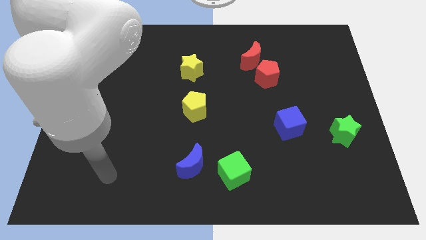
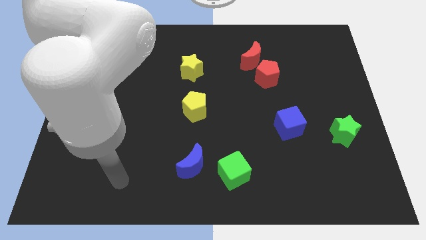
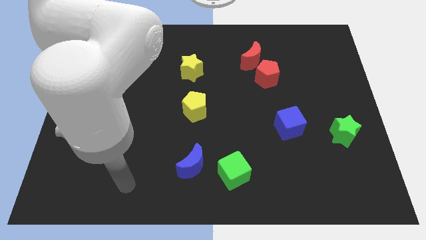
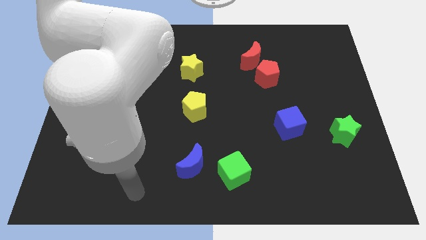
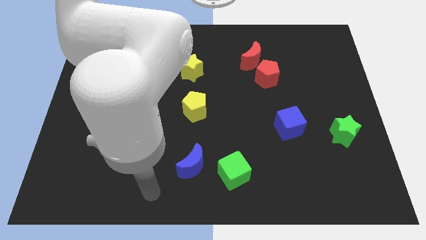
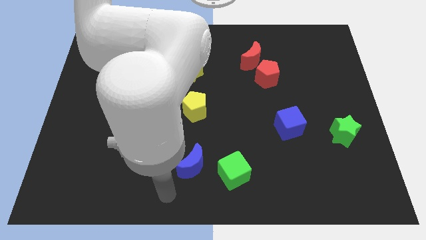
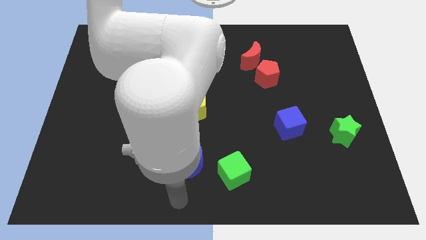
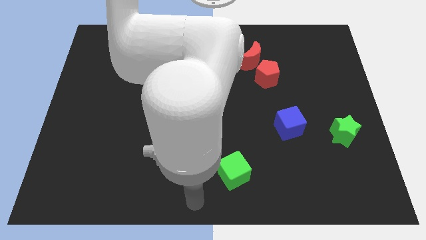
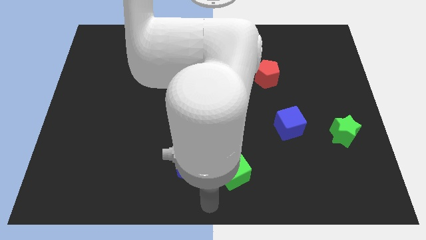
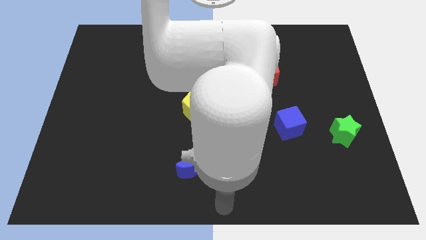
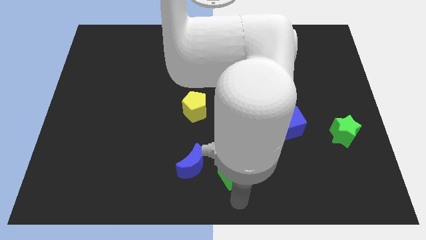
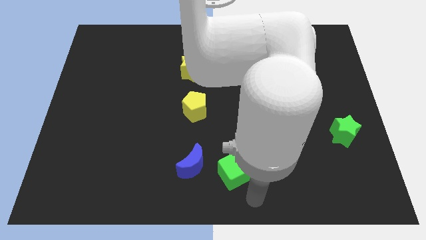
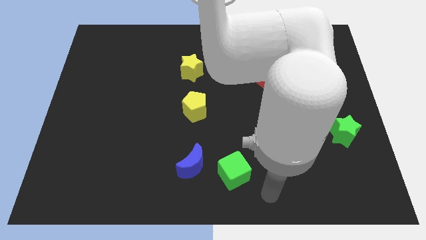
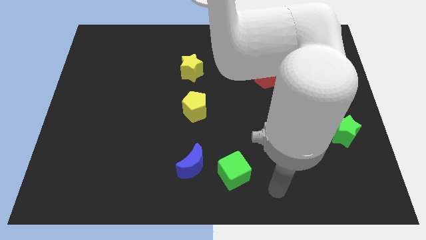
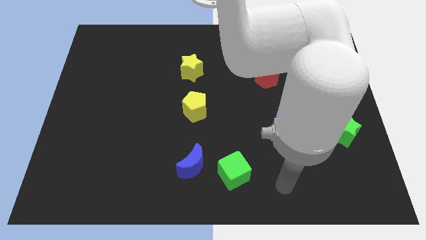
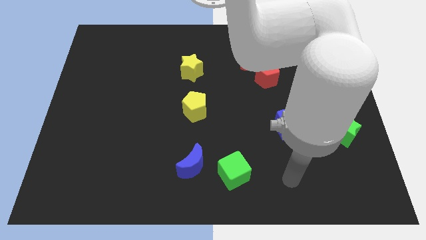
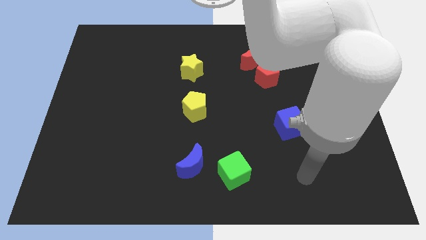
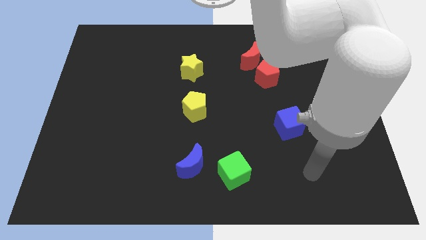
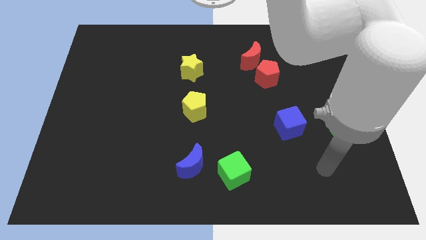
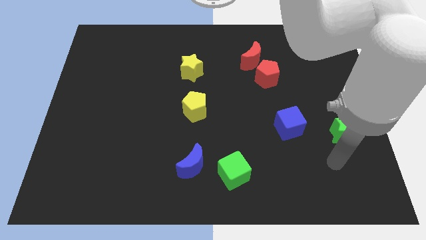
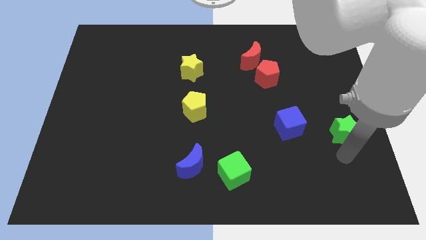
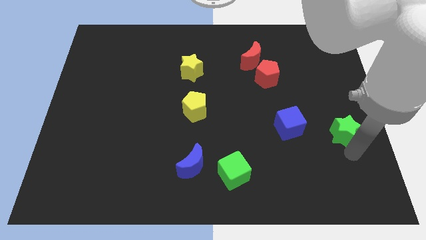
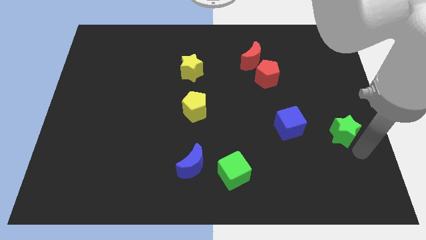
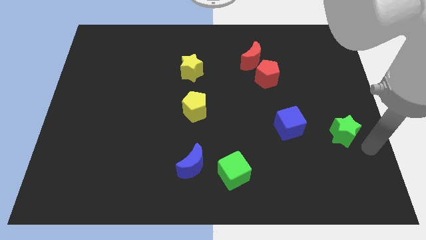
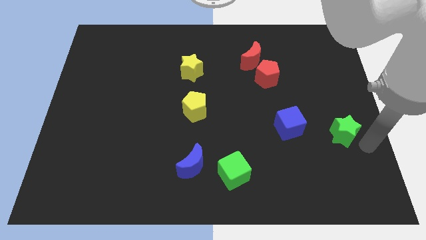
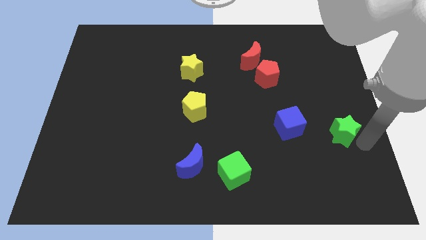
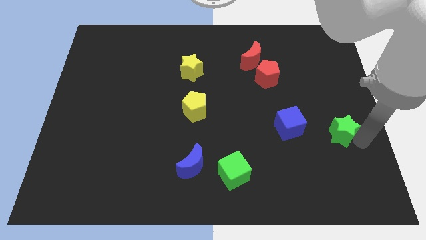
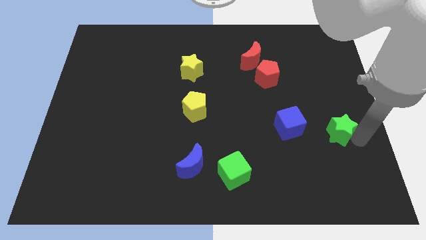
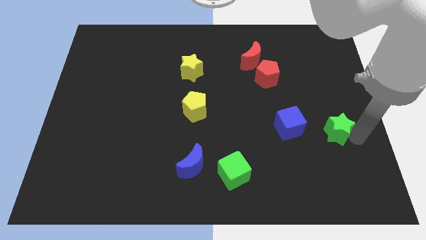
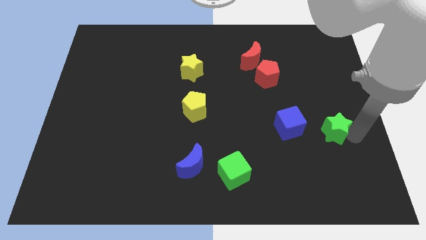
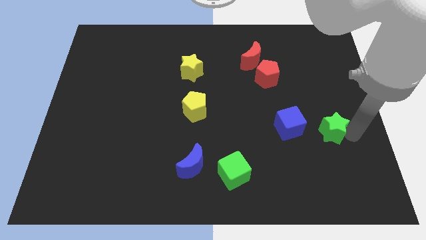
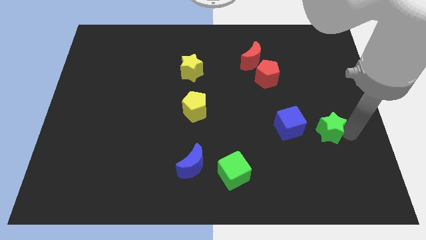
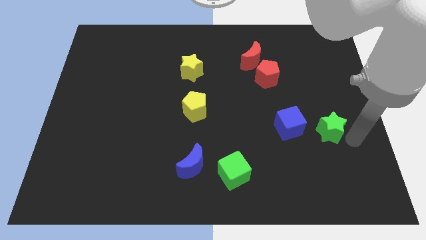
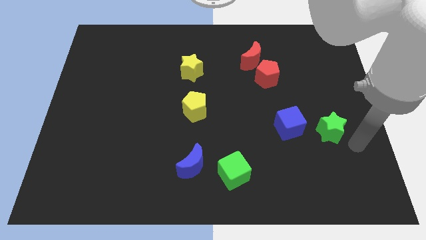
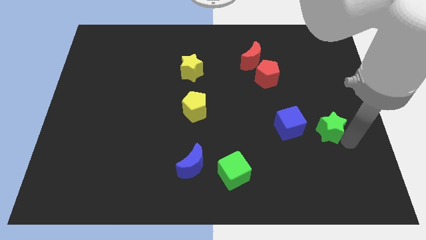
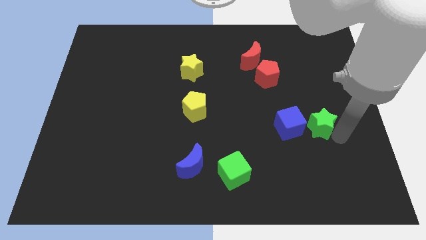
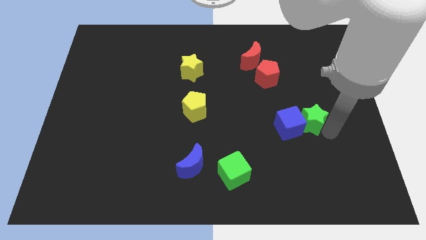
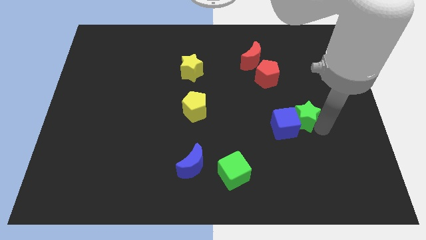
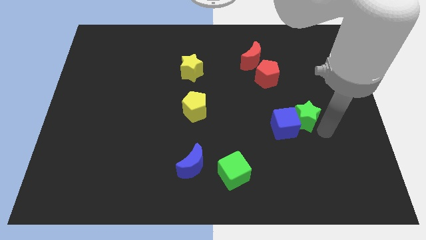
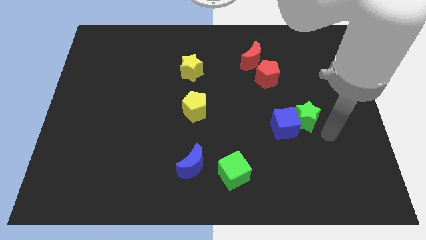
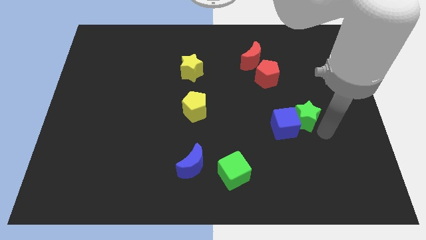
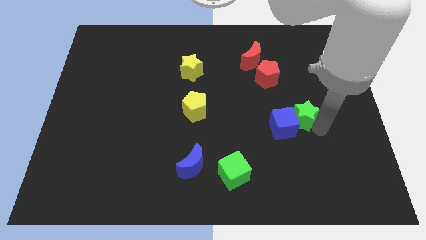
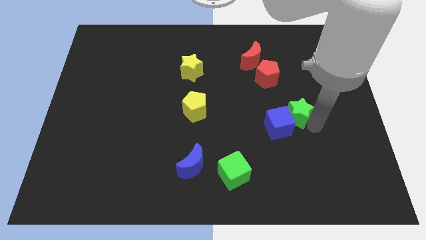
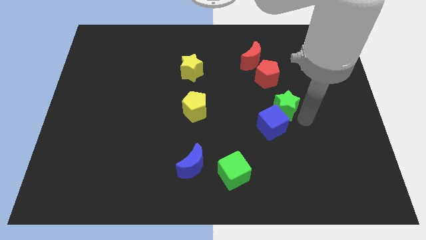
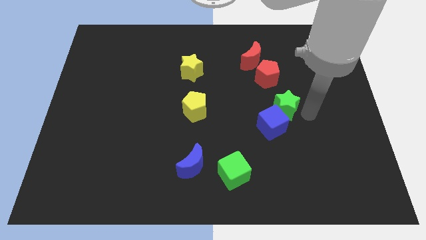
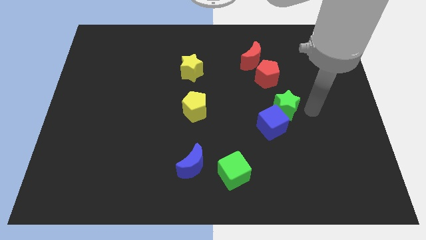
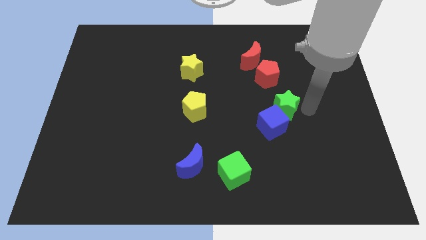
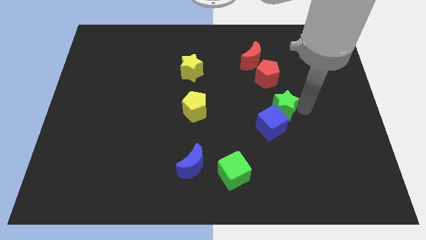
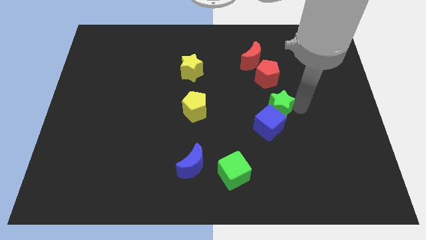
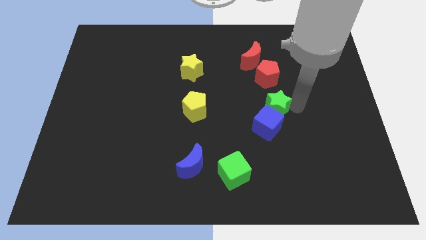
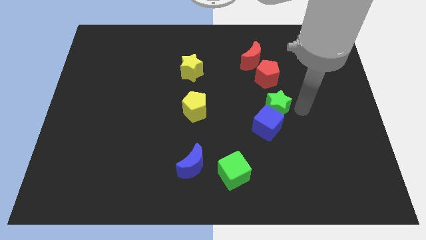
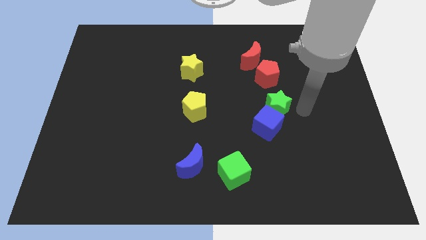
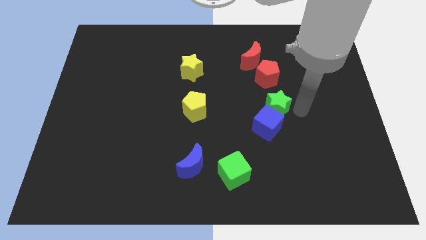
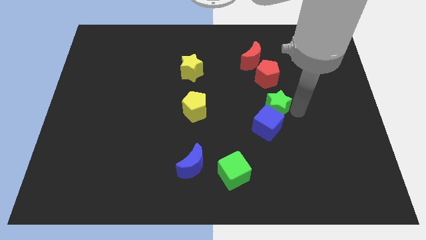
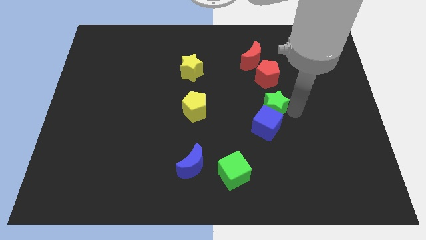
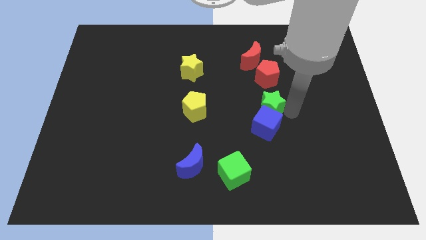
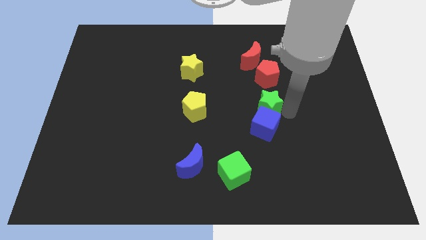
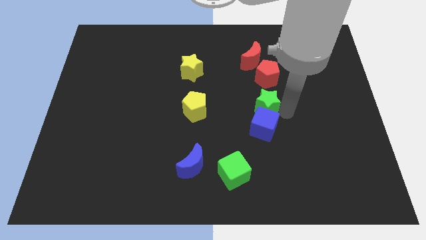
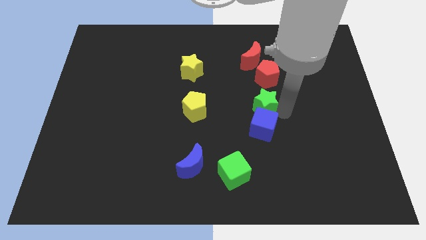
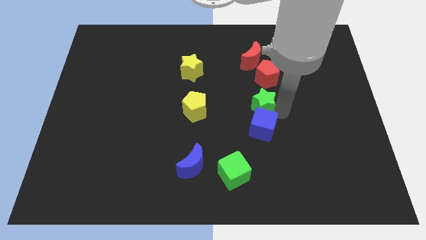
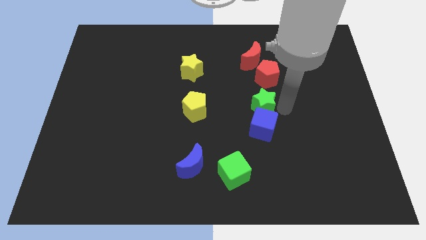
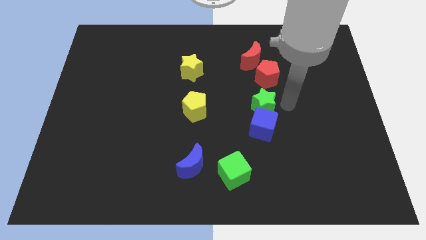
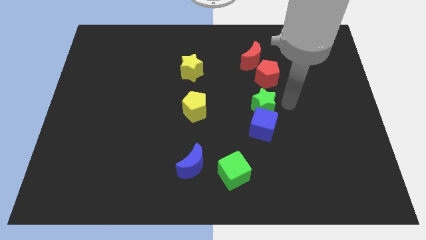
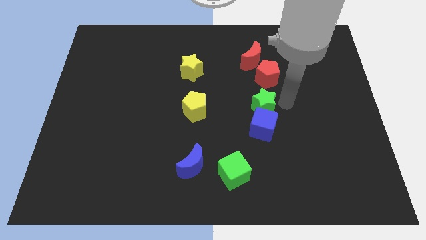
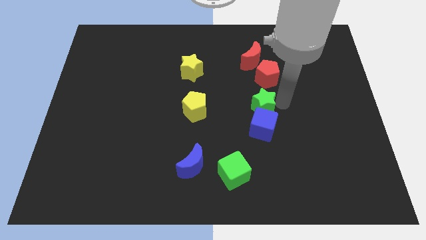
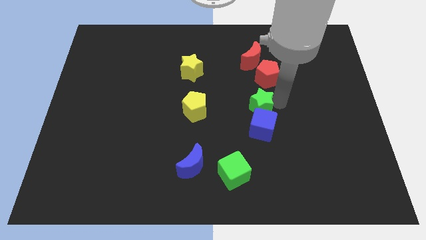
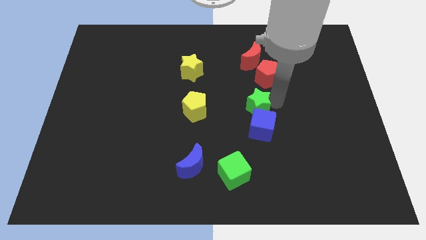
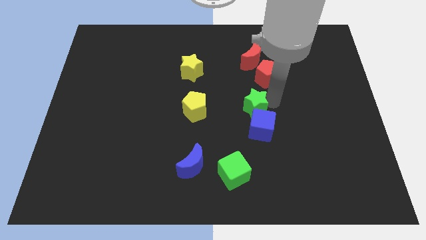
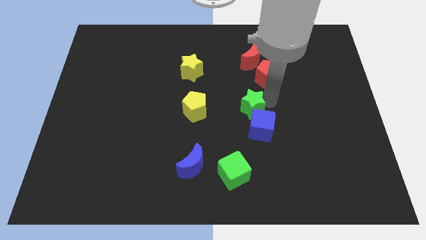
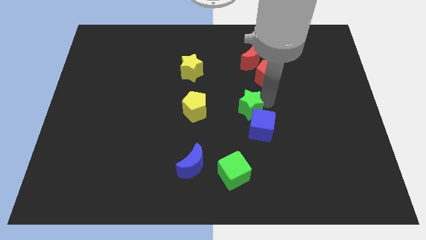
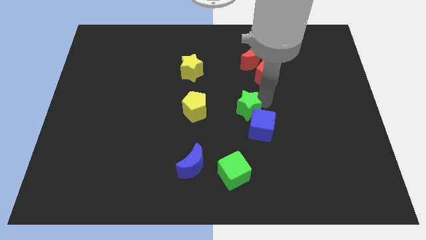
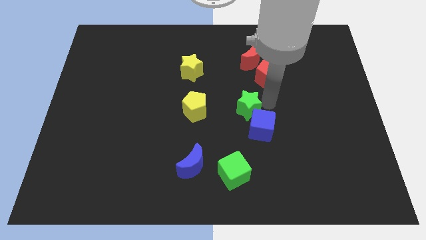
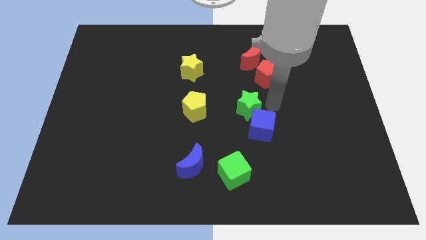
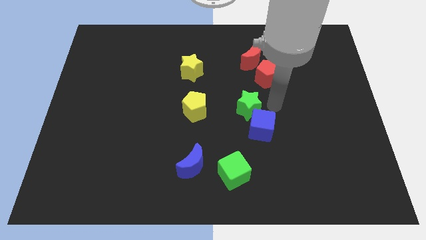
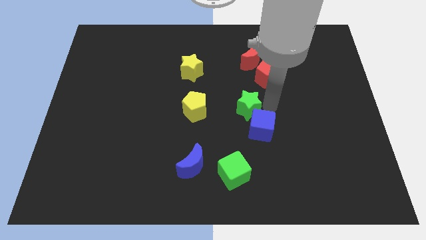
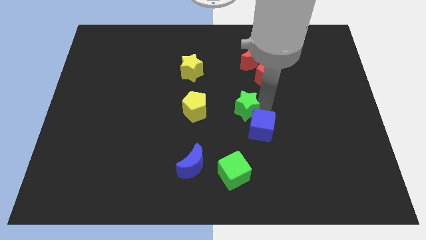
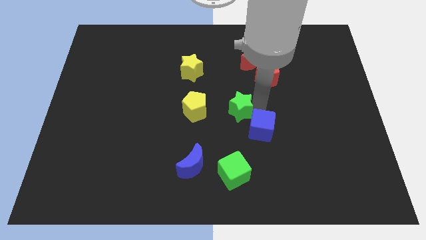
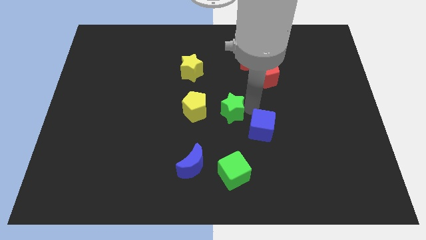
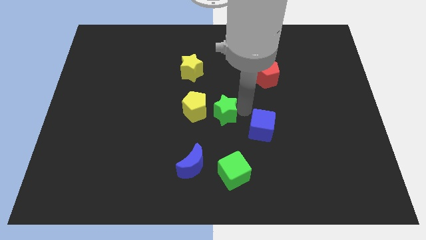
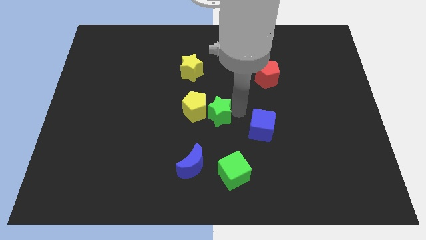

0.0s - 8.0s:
push the green star close to the yellow pentagon
